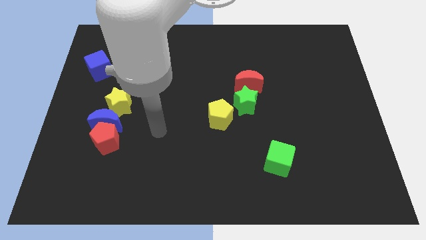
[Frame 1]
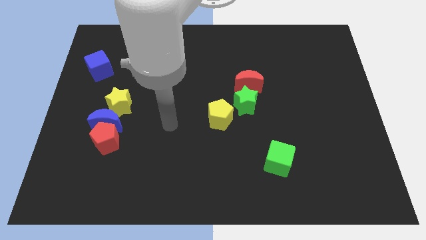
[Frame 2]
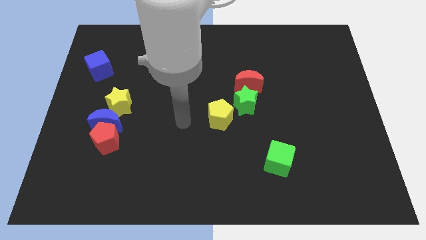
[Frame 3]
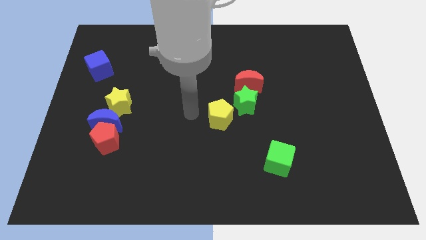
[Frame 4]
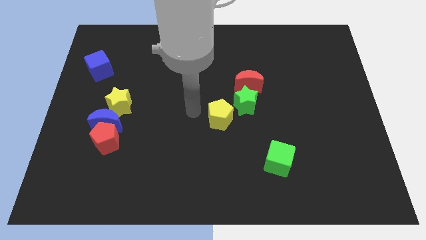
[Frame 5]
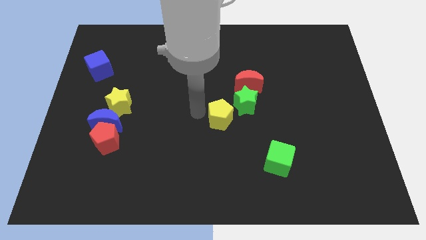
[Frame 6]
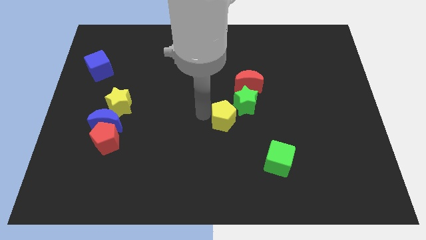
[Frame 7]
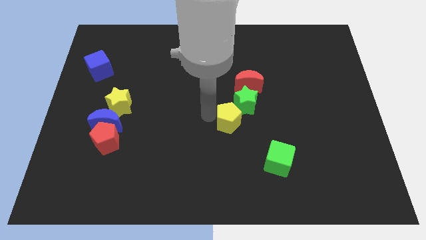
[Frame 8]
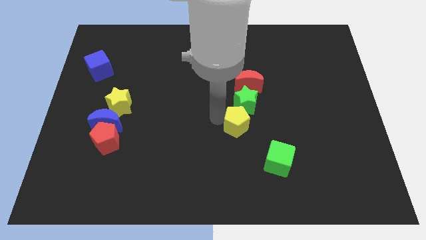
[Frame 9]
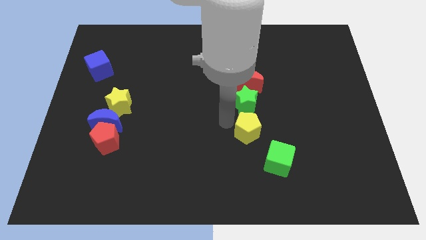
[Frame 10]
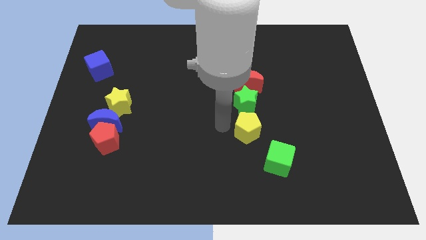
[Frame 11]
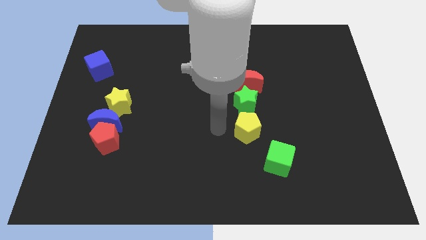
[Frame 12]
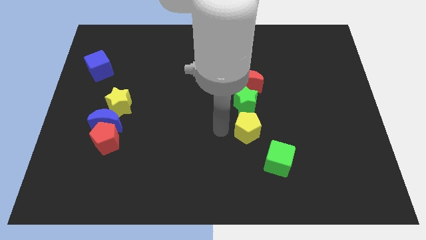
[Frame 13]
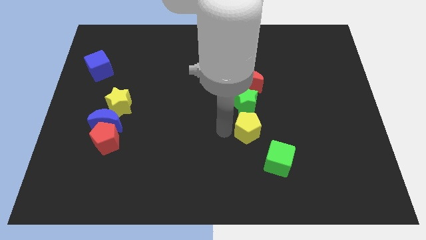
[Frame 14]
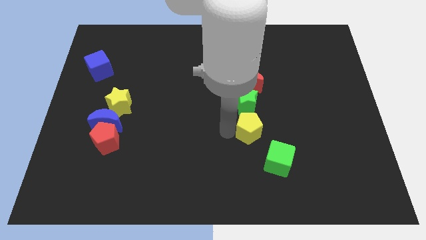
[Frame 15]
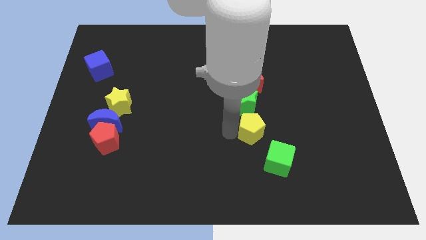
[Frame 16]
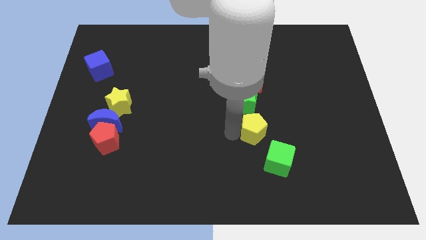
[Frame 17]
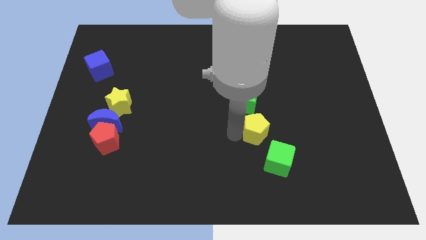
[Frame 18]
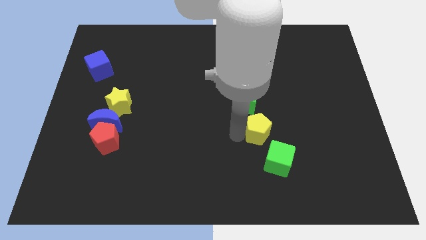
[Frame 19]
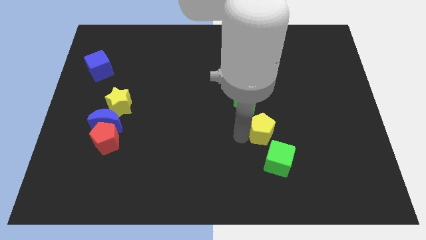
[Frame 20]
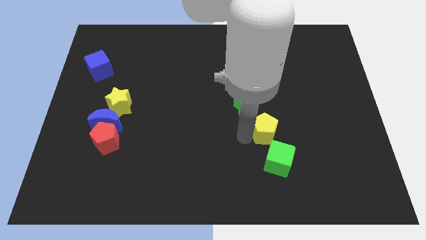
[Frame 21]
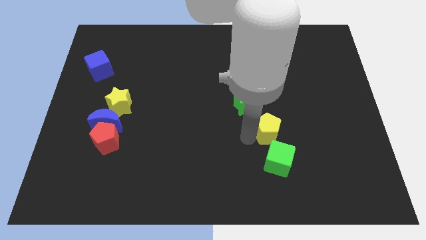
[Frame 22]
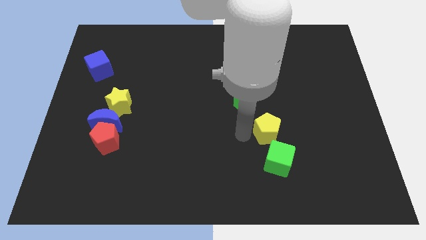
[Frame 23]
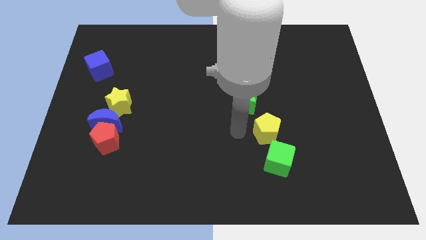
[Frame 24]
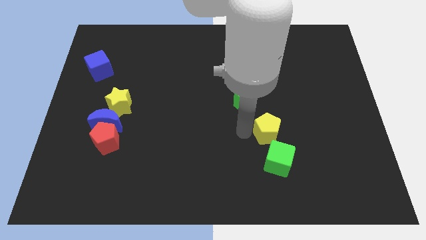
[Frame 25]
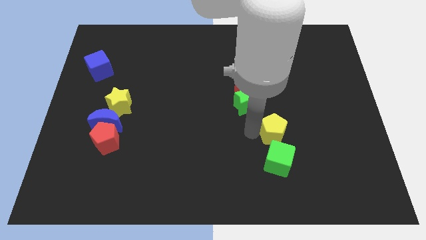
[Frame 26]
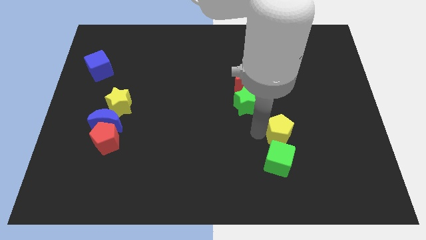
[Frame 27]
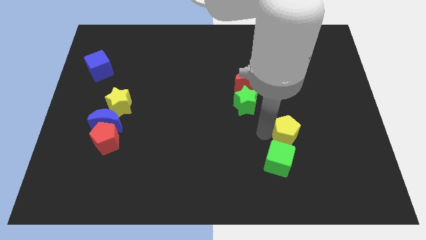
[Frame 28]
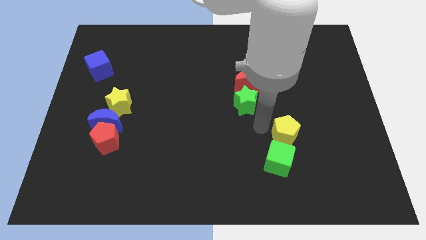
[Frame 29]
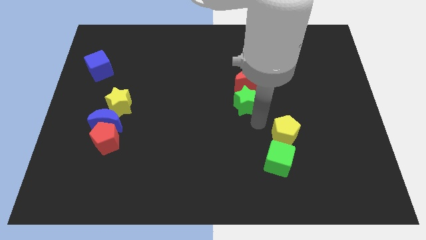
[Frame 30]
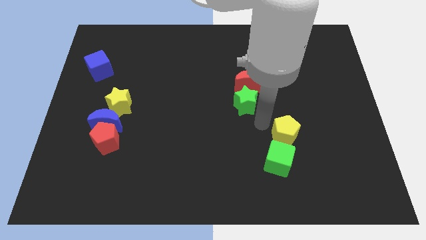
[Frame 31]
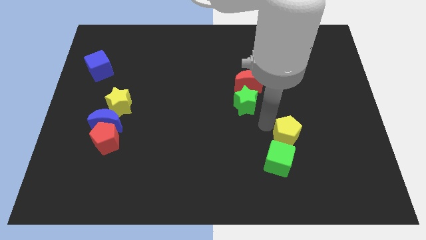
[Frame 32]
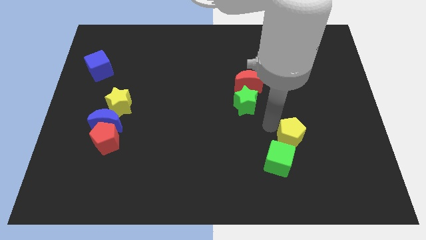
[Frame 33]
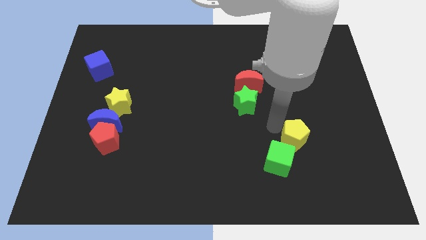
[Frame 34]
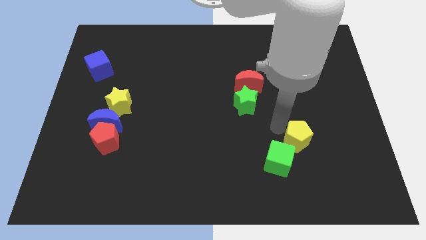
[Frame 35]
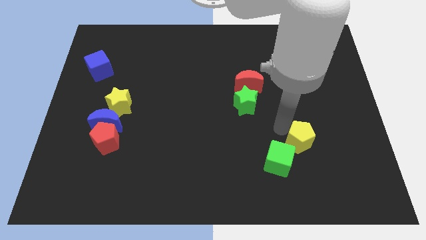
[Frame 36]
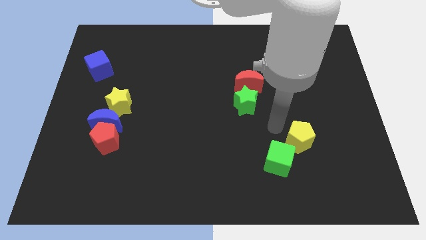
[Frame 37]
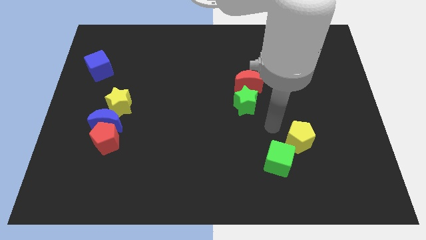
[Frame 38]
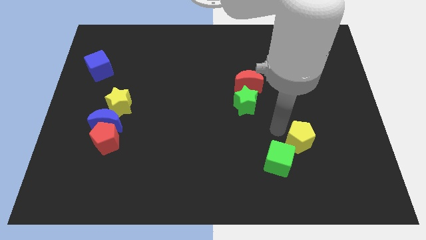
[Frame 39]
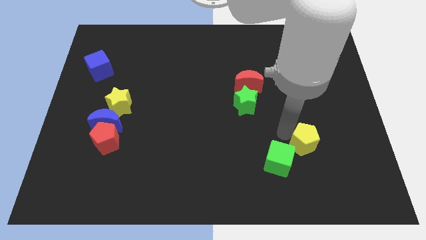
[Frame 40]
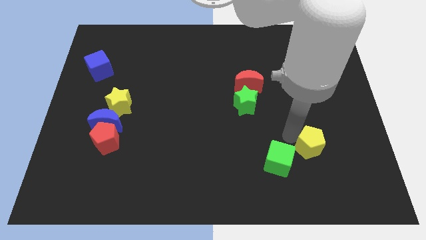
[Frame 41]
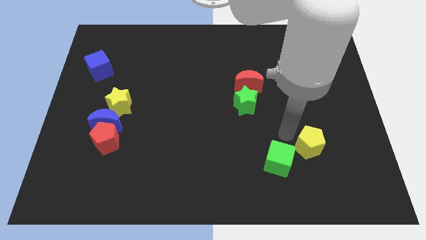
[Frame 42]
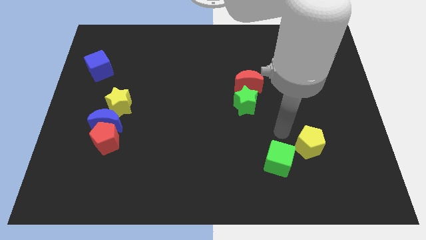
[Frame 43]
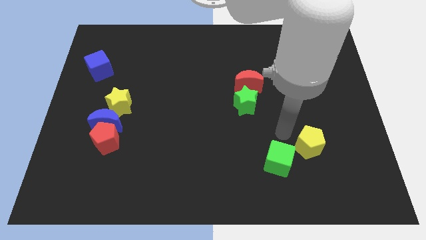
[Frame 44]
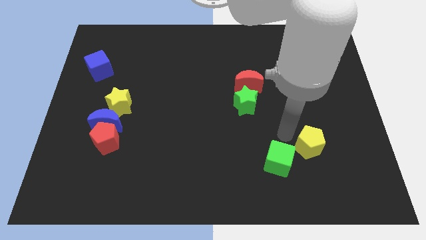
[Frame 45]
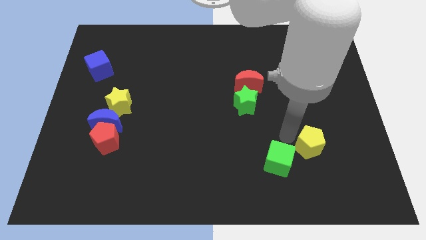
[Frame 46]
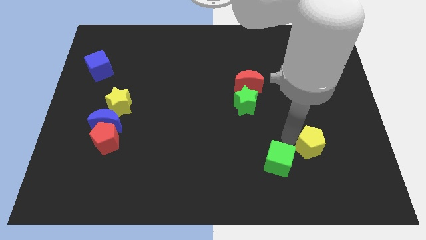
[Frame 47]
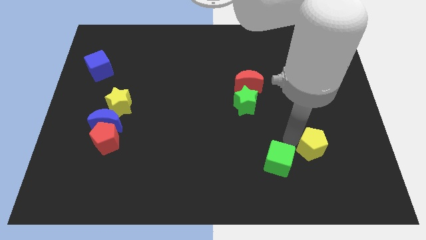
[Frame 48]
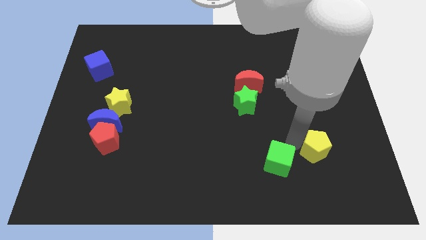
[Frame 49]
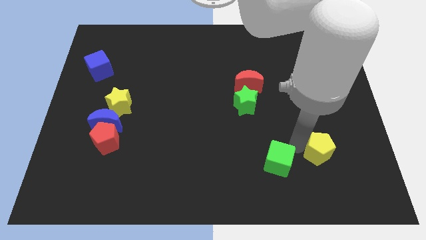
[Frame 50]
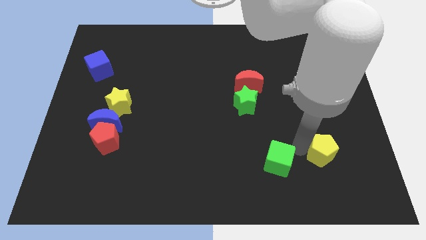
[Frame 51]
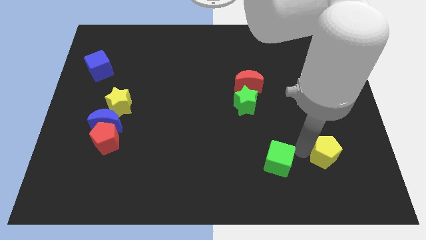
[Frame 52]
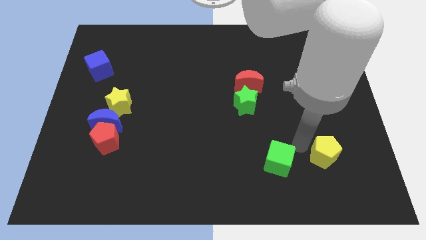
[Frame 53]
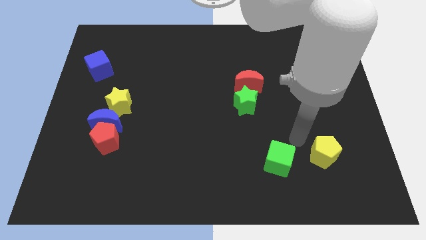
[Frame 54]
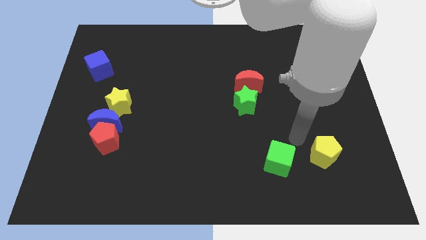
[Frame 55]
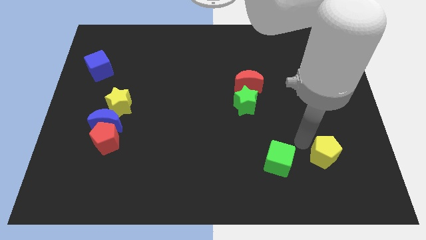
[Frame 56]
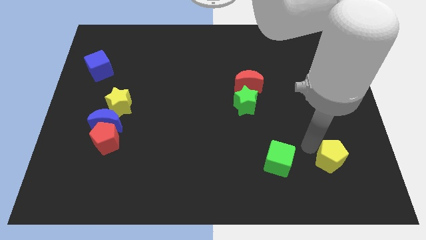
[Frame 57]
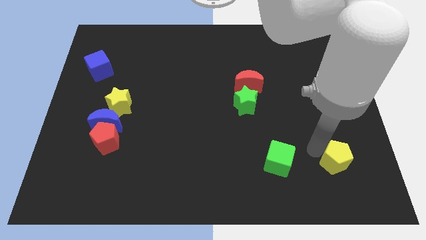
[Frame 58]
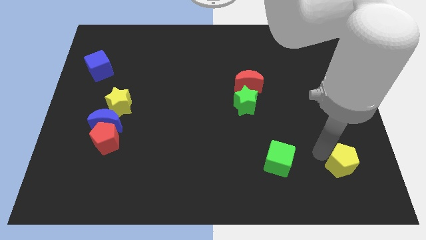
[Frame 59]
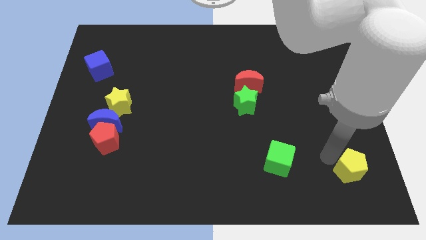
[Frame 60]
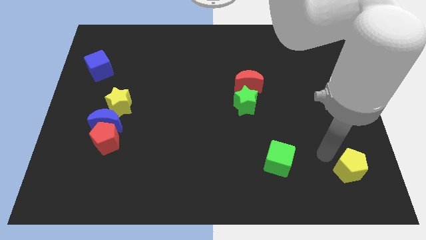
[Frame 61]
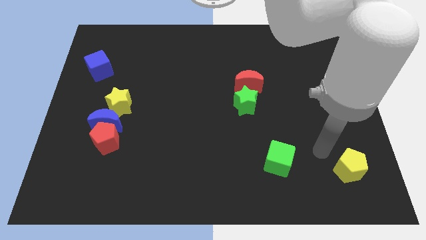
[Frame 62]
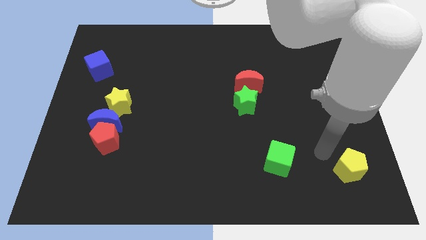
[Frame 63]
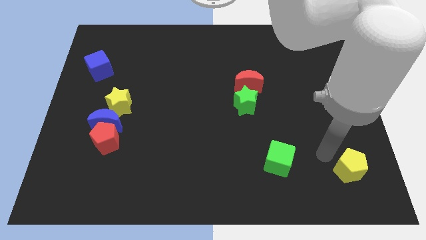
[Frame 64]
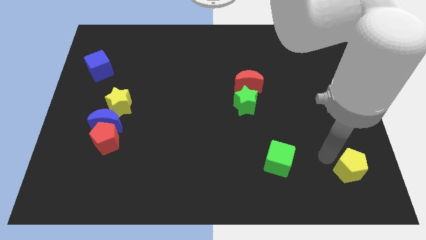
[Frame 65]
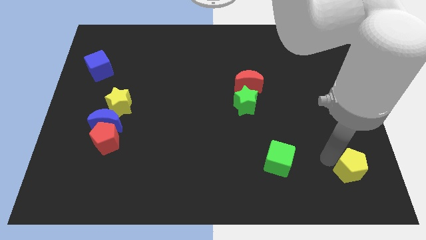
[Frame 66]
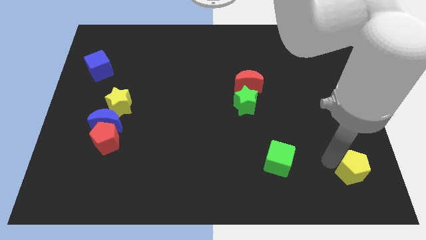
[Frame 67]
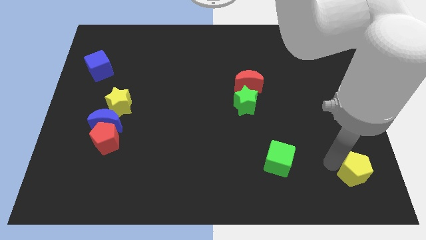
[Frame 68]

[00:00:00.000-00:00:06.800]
push the yellow pentagon to the lower right corner

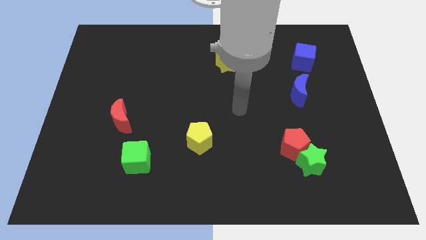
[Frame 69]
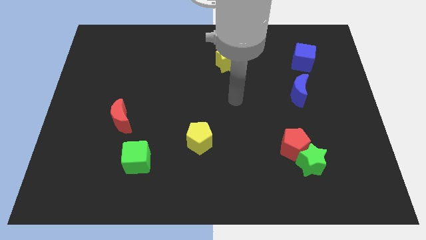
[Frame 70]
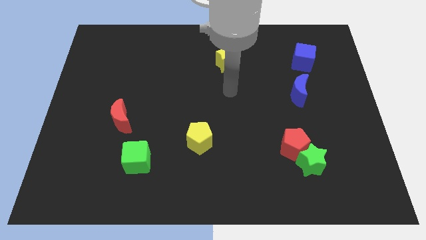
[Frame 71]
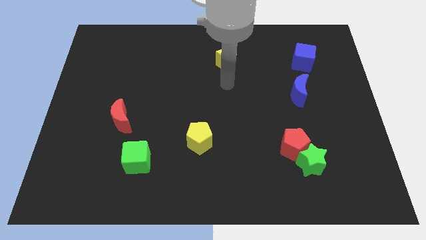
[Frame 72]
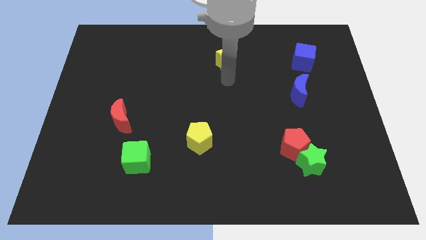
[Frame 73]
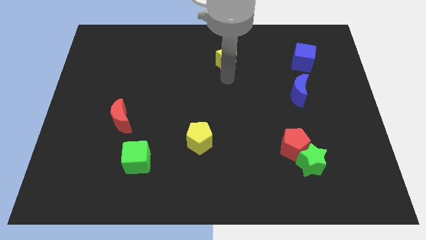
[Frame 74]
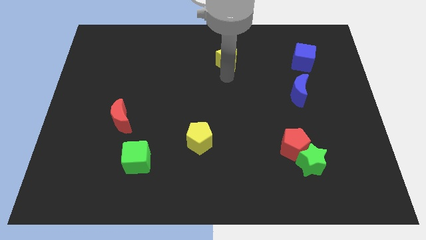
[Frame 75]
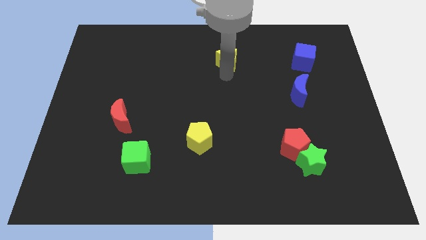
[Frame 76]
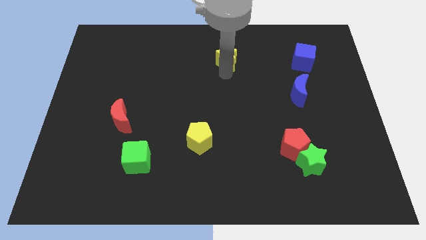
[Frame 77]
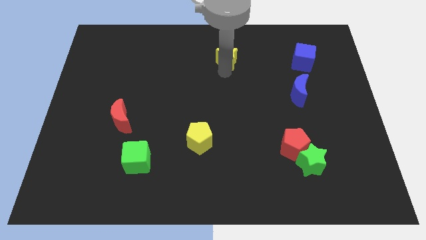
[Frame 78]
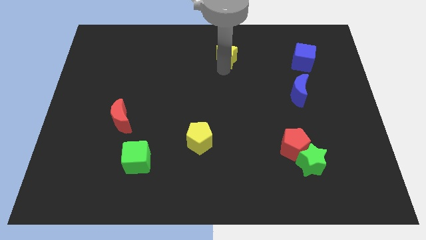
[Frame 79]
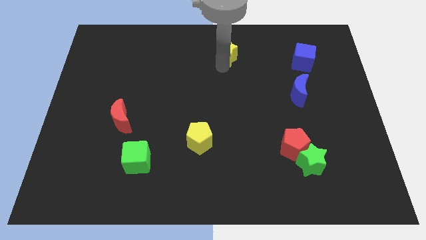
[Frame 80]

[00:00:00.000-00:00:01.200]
move the yellow star to the top
